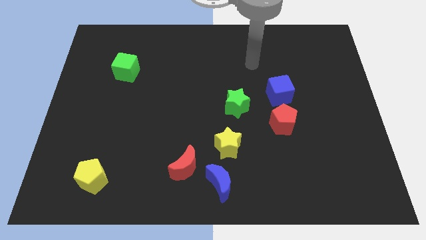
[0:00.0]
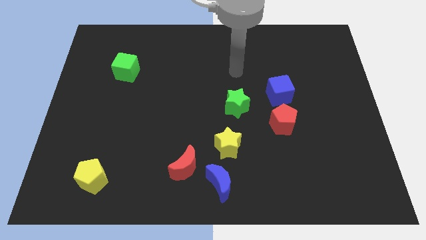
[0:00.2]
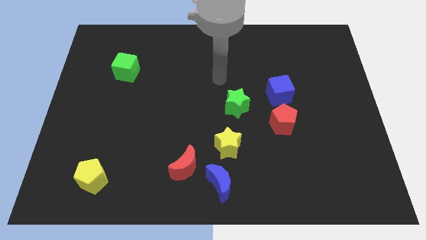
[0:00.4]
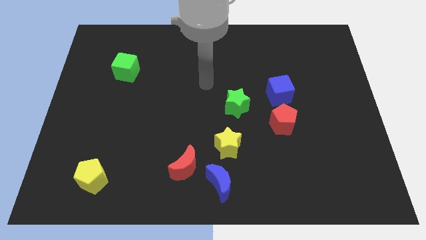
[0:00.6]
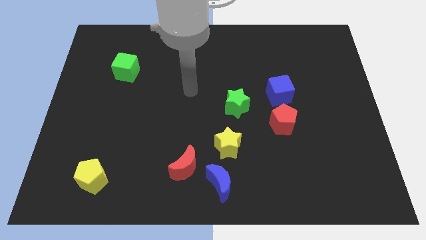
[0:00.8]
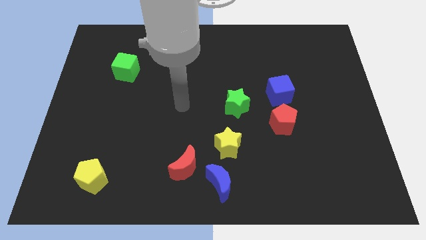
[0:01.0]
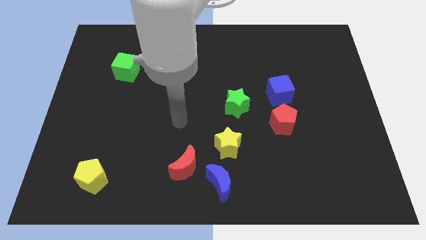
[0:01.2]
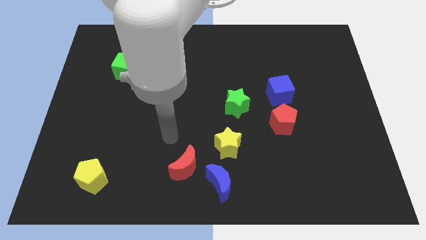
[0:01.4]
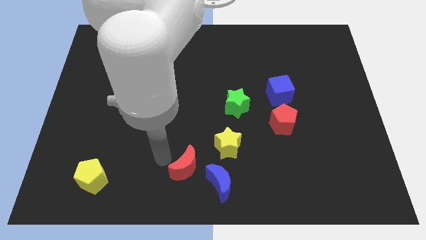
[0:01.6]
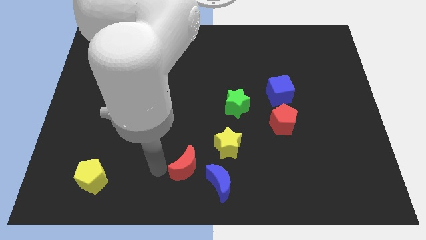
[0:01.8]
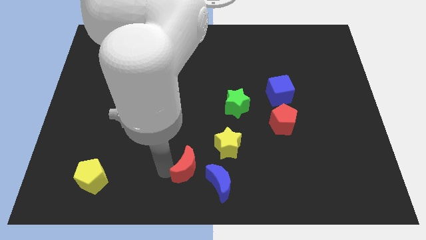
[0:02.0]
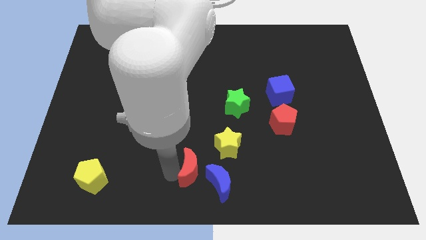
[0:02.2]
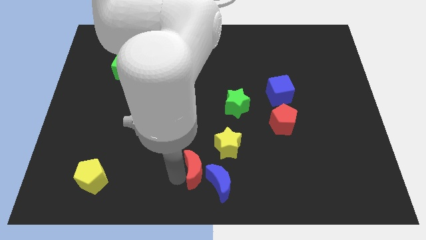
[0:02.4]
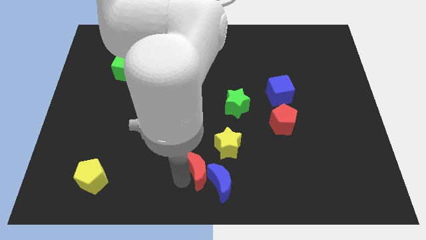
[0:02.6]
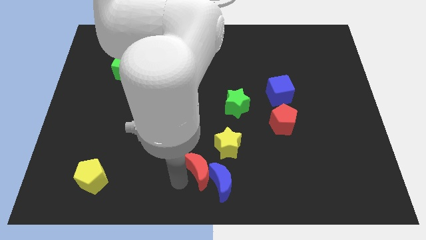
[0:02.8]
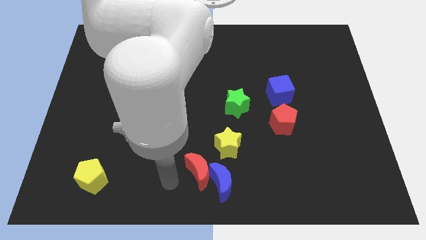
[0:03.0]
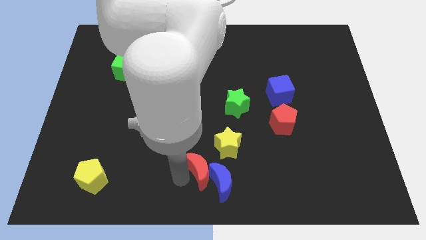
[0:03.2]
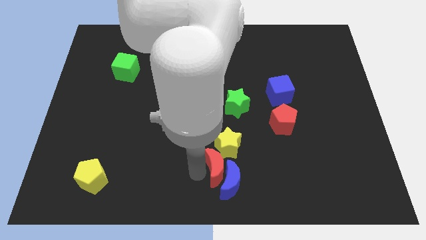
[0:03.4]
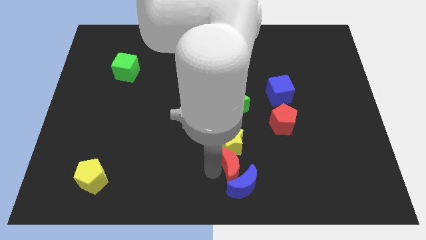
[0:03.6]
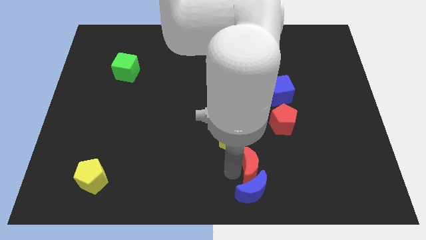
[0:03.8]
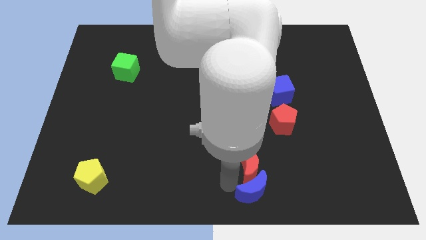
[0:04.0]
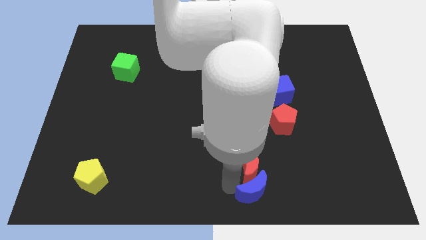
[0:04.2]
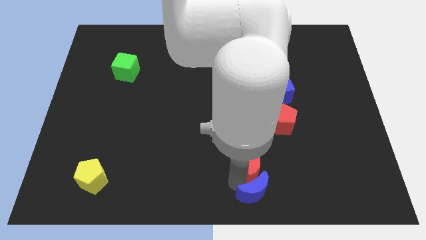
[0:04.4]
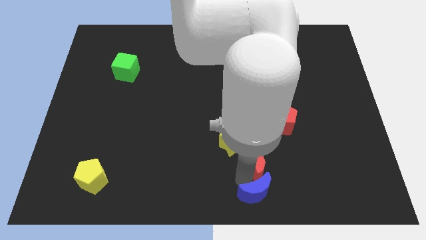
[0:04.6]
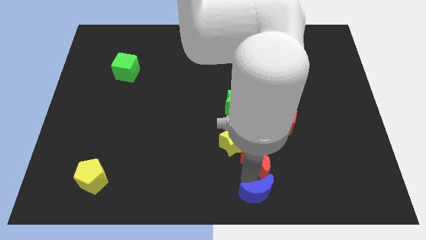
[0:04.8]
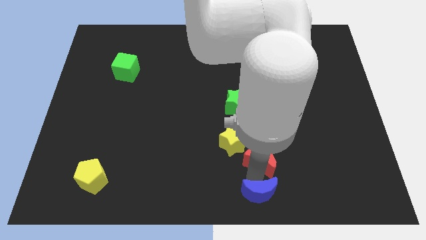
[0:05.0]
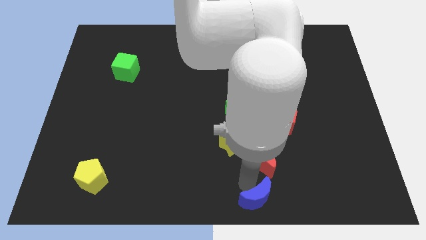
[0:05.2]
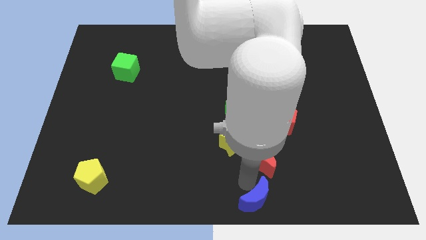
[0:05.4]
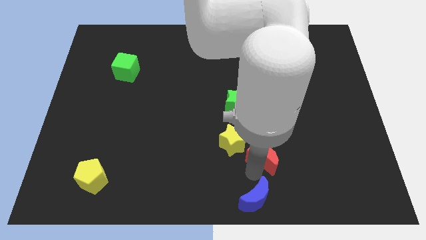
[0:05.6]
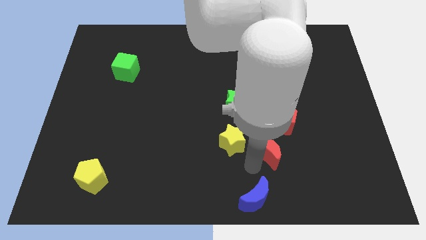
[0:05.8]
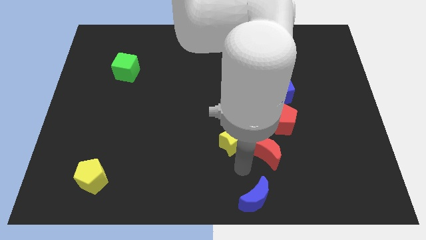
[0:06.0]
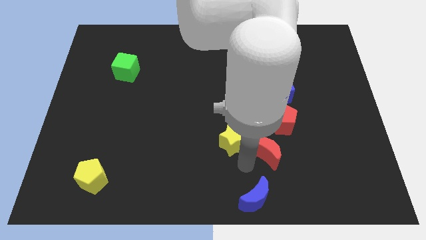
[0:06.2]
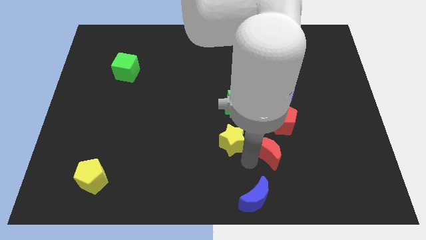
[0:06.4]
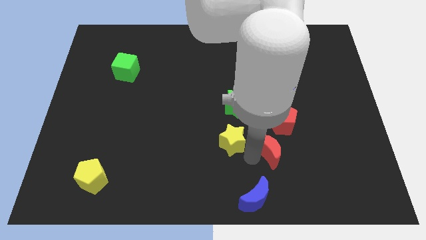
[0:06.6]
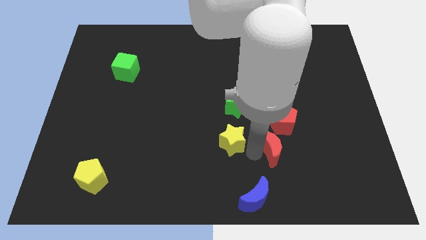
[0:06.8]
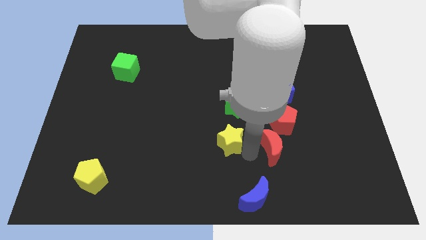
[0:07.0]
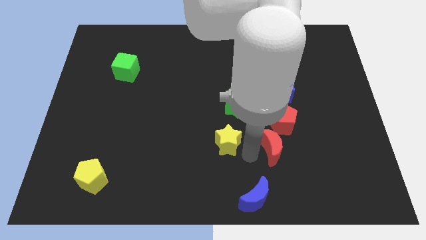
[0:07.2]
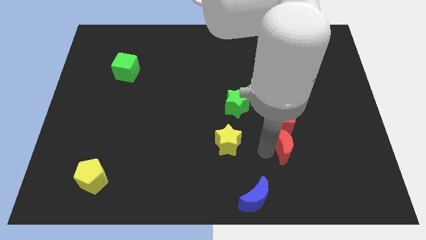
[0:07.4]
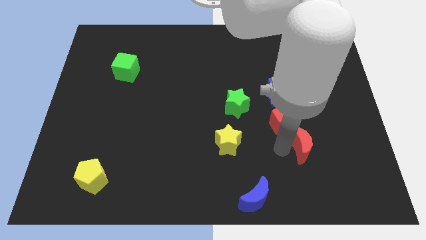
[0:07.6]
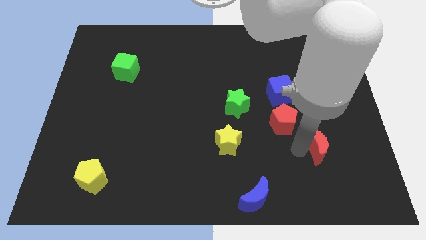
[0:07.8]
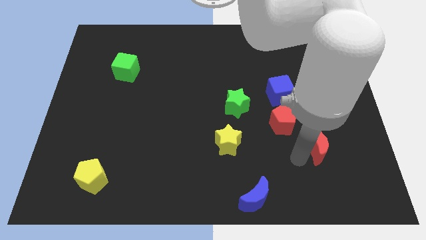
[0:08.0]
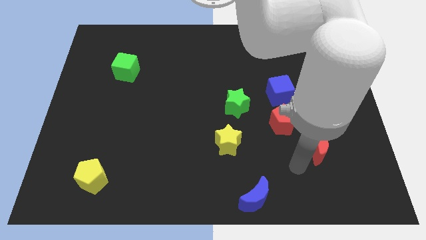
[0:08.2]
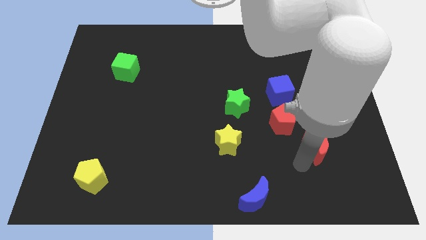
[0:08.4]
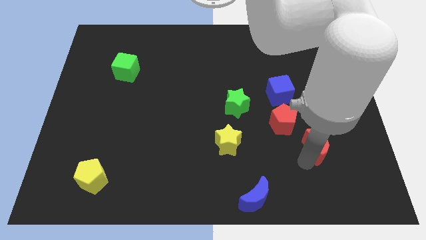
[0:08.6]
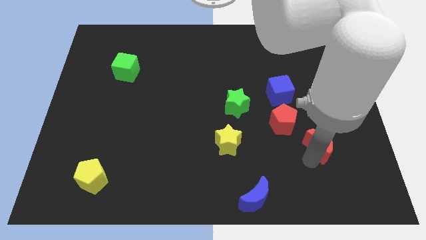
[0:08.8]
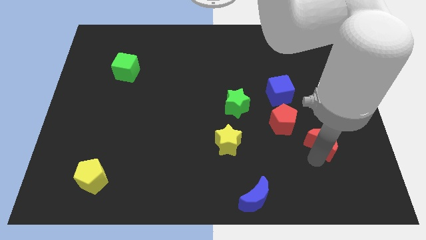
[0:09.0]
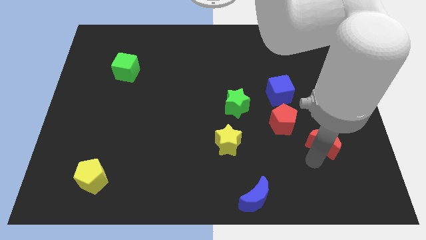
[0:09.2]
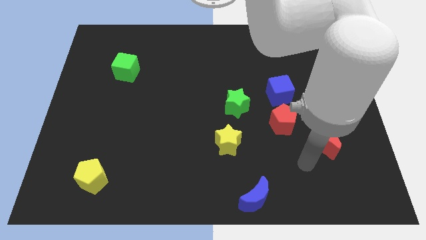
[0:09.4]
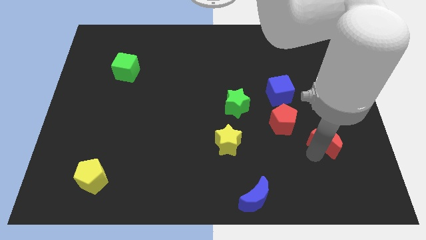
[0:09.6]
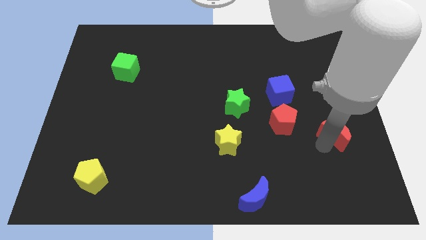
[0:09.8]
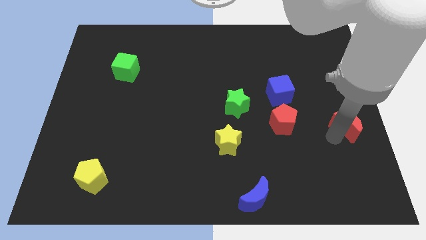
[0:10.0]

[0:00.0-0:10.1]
put the red moon to the center right

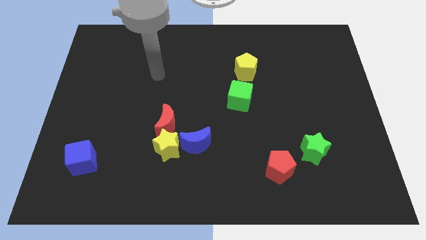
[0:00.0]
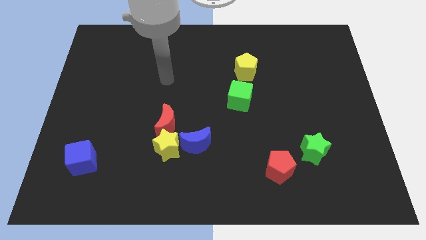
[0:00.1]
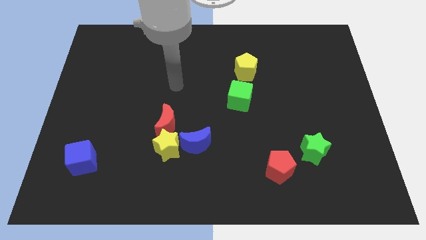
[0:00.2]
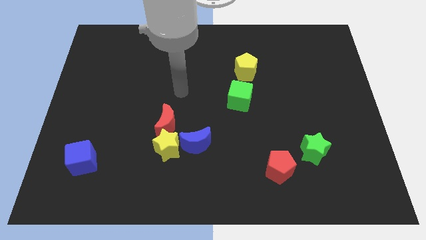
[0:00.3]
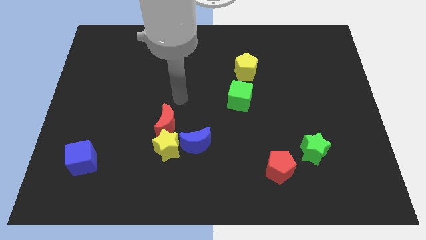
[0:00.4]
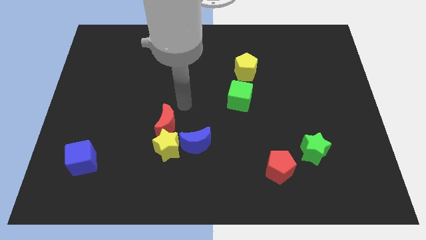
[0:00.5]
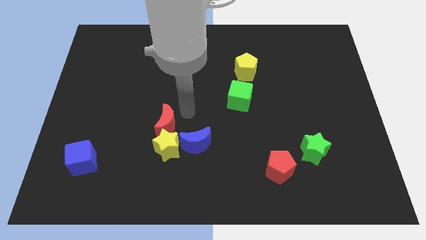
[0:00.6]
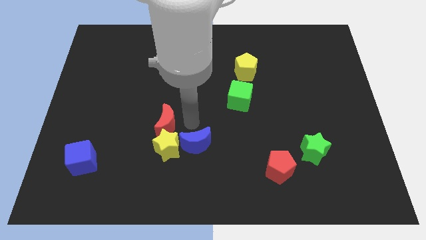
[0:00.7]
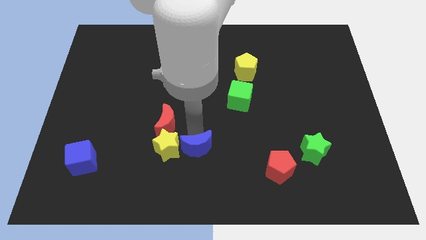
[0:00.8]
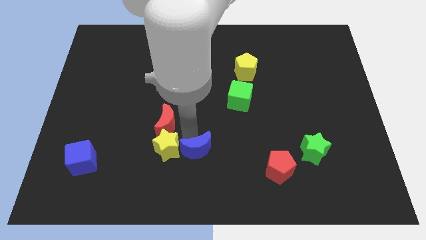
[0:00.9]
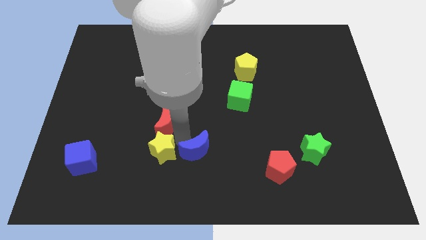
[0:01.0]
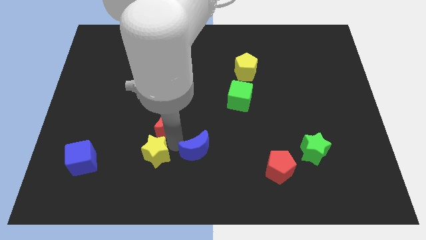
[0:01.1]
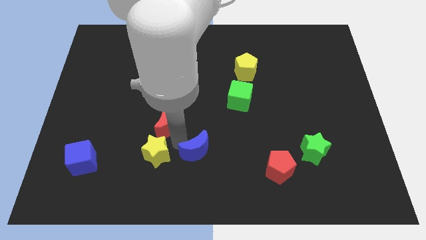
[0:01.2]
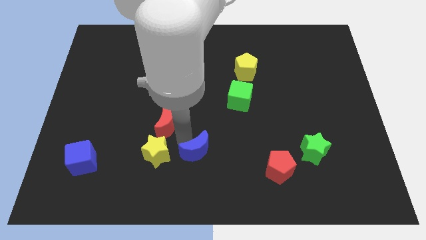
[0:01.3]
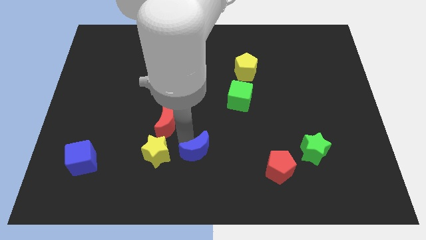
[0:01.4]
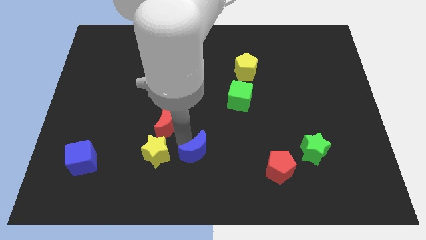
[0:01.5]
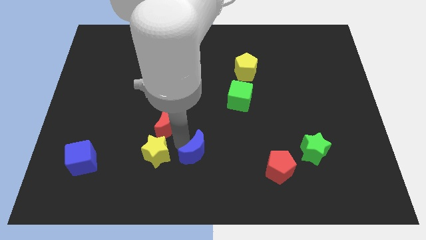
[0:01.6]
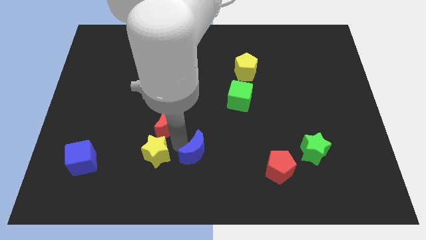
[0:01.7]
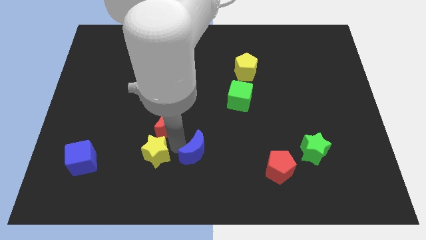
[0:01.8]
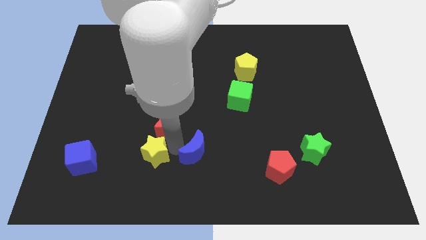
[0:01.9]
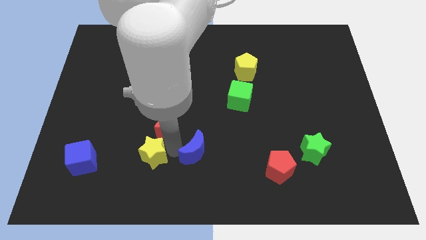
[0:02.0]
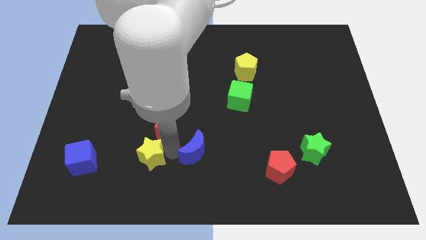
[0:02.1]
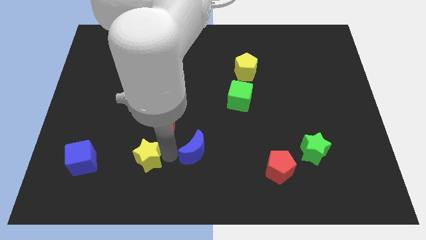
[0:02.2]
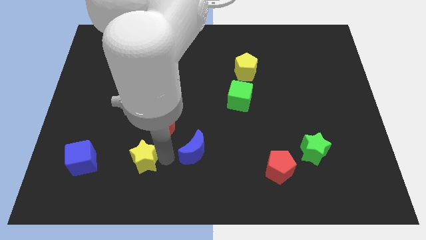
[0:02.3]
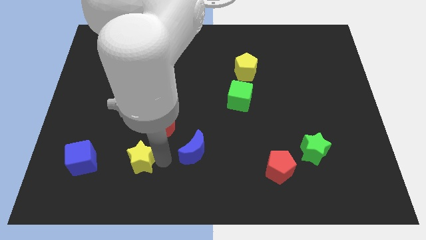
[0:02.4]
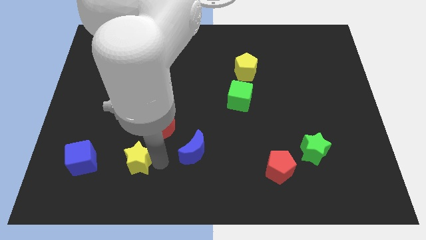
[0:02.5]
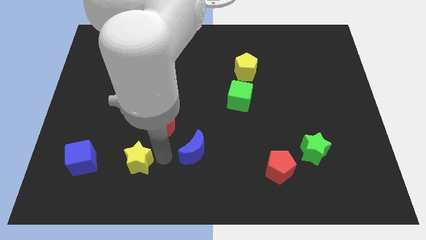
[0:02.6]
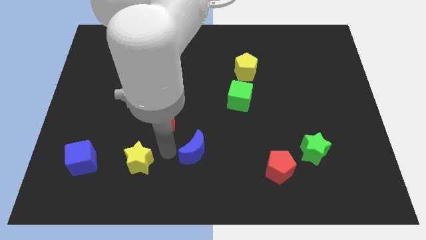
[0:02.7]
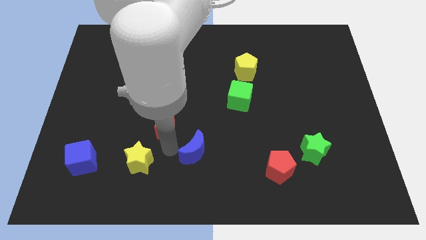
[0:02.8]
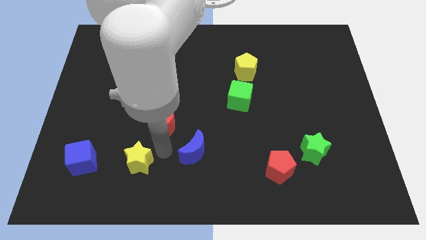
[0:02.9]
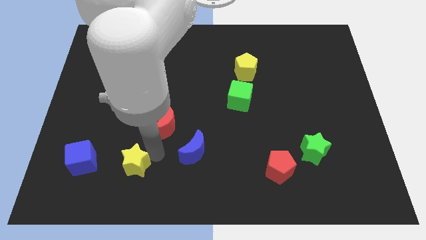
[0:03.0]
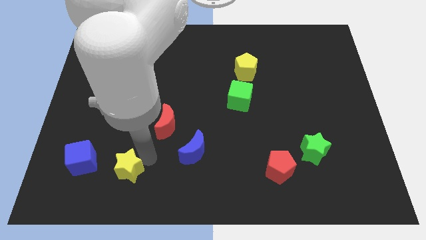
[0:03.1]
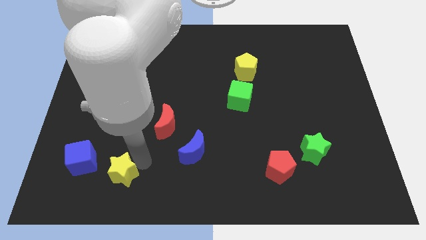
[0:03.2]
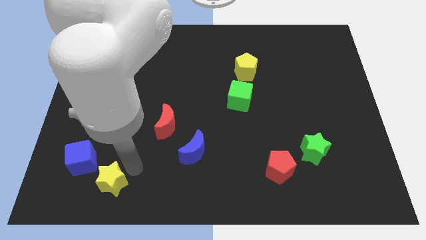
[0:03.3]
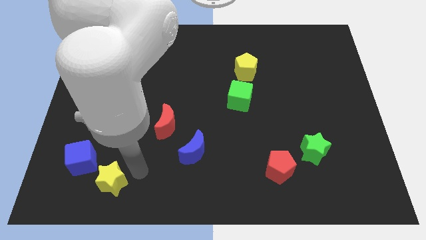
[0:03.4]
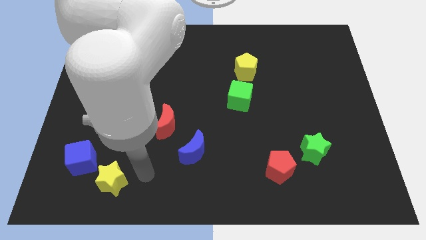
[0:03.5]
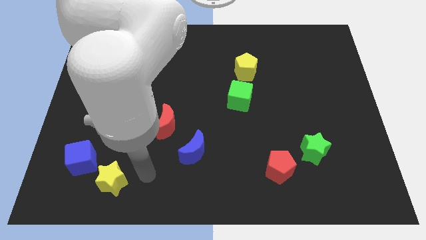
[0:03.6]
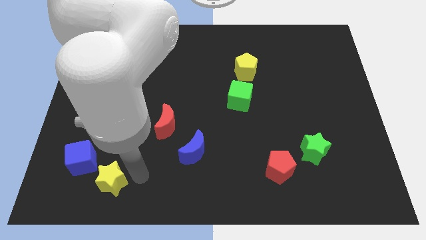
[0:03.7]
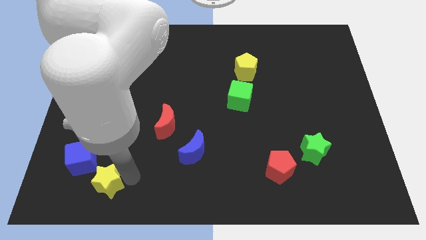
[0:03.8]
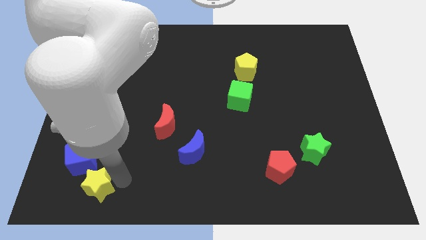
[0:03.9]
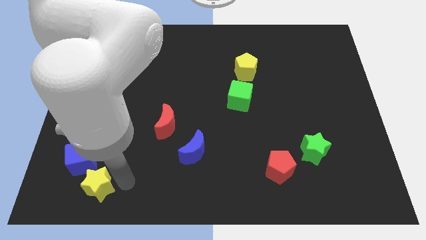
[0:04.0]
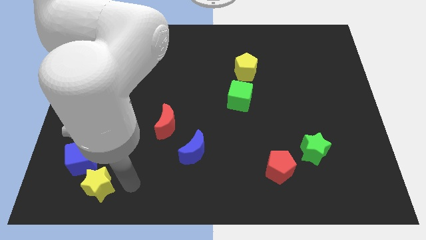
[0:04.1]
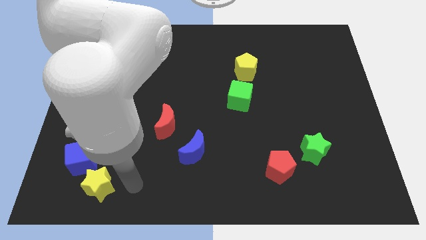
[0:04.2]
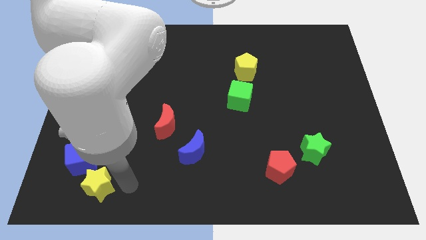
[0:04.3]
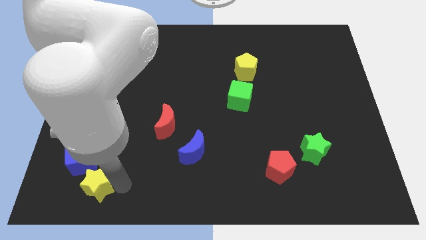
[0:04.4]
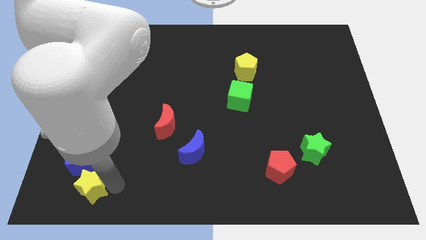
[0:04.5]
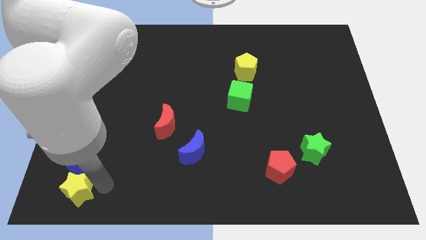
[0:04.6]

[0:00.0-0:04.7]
push the yellow star to the bottom left
